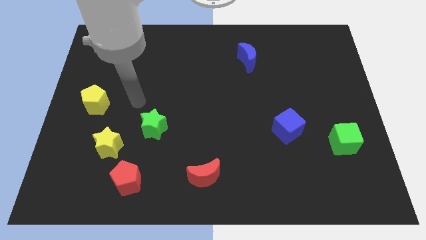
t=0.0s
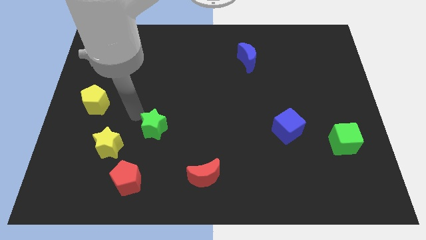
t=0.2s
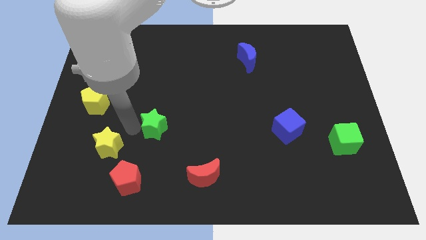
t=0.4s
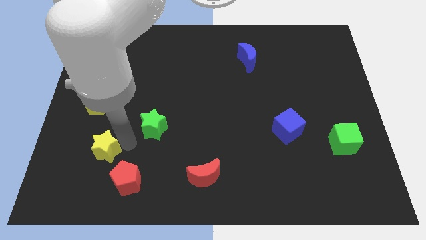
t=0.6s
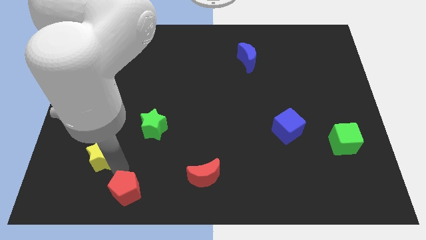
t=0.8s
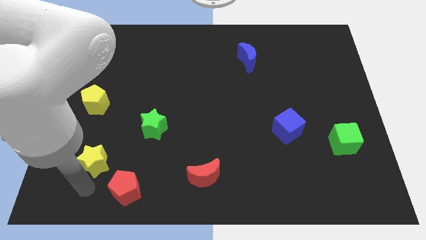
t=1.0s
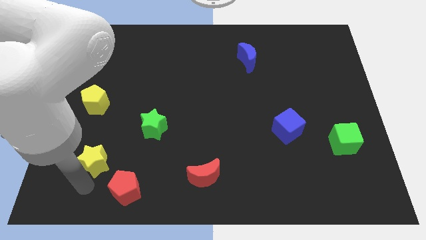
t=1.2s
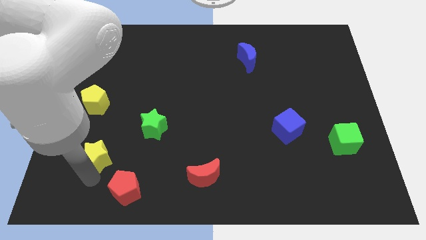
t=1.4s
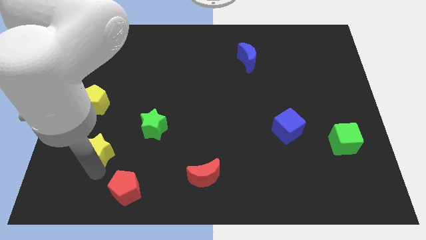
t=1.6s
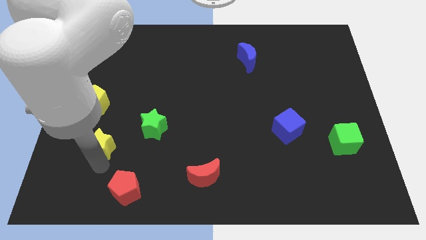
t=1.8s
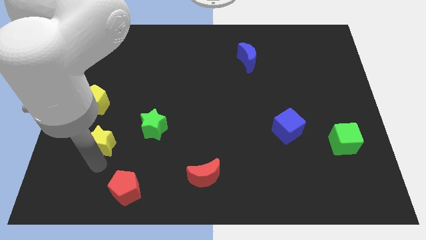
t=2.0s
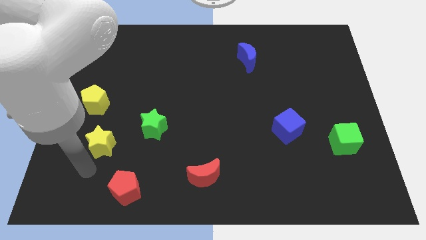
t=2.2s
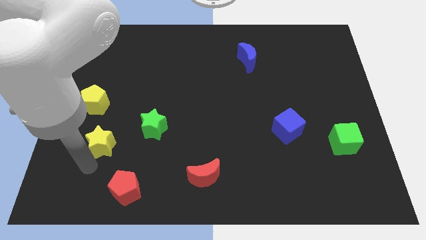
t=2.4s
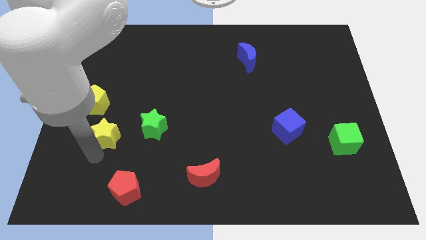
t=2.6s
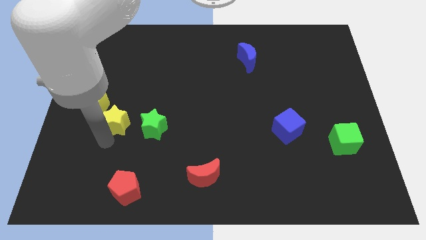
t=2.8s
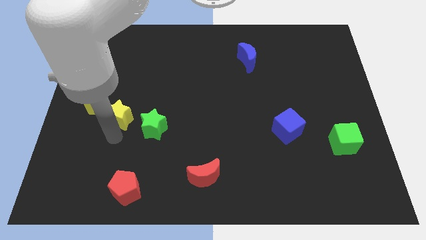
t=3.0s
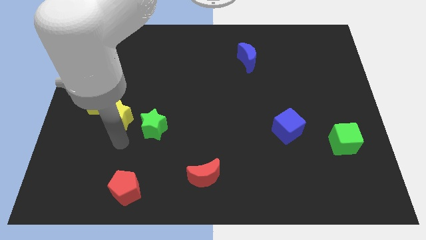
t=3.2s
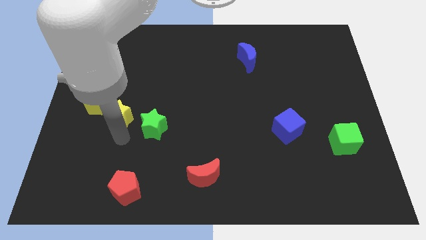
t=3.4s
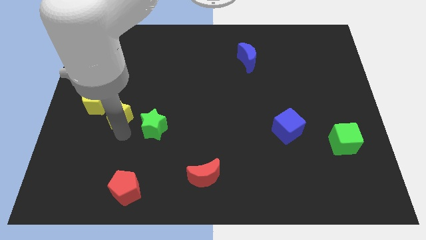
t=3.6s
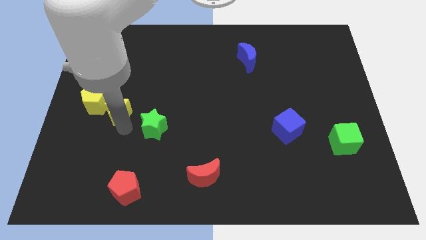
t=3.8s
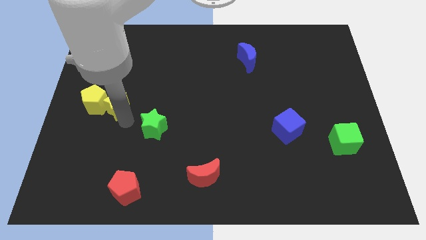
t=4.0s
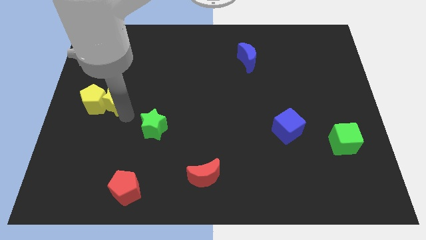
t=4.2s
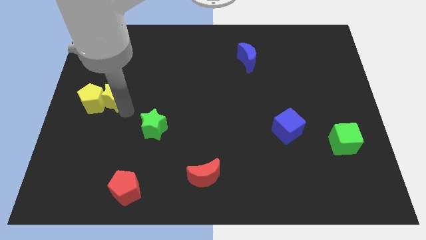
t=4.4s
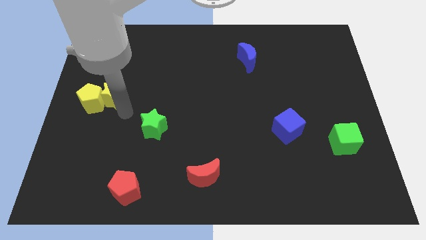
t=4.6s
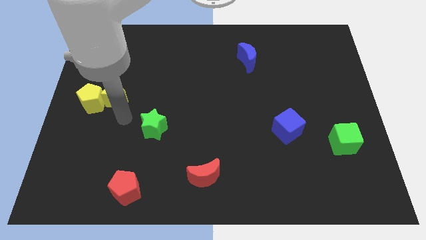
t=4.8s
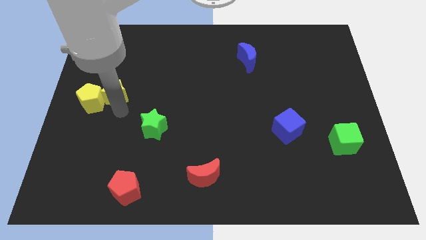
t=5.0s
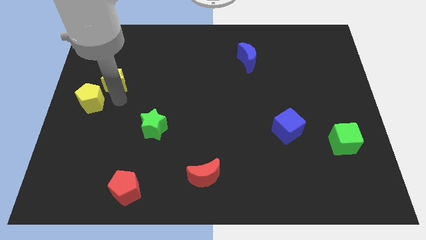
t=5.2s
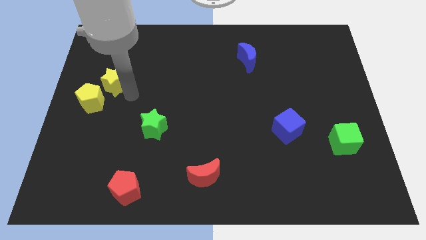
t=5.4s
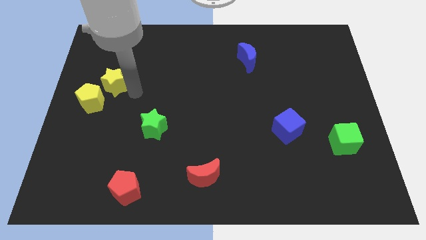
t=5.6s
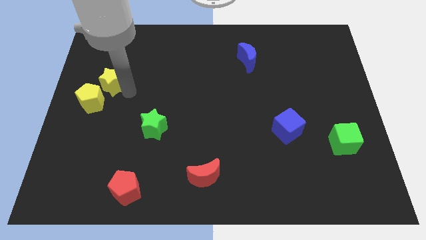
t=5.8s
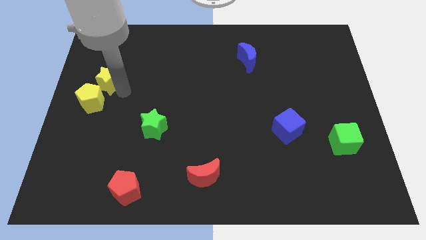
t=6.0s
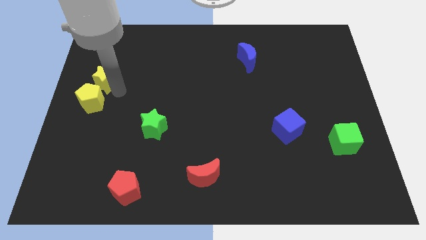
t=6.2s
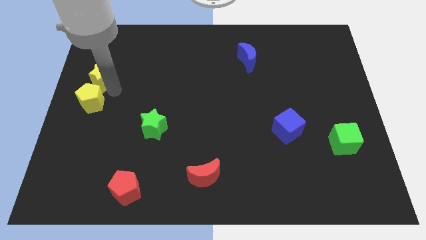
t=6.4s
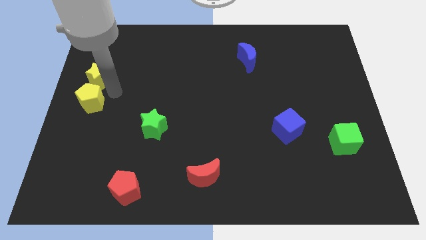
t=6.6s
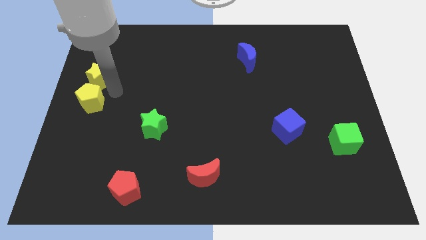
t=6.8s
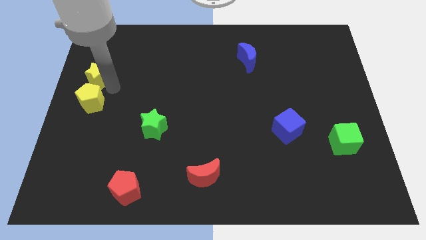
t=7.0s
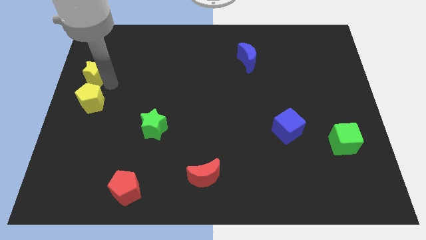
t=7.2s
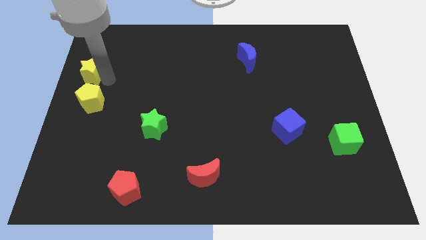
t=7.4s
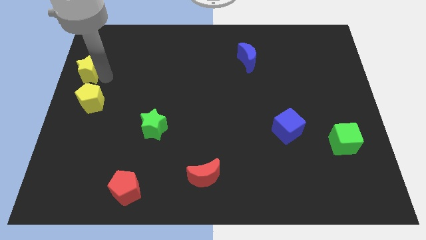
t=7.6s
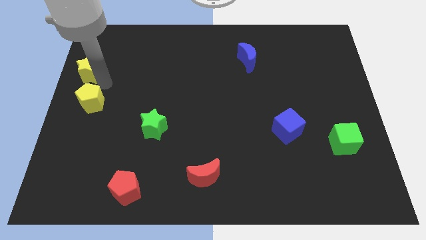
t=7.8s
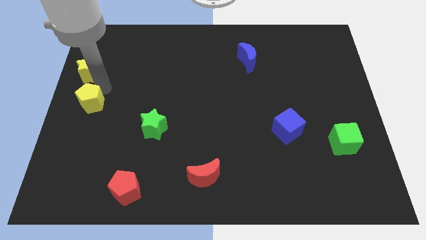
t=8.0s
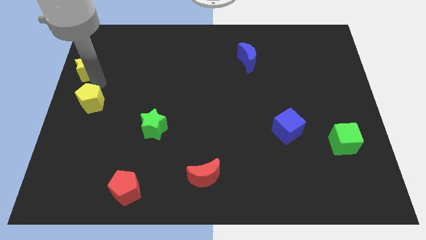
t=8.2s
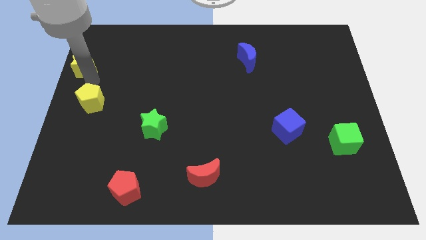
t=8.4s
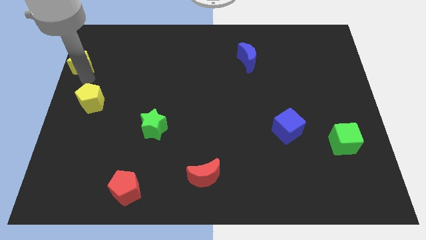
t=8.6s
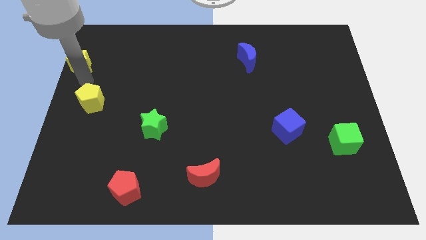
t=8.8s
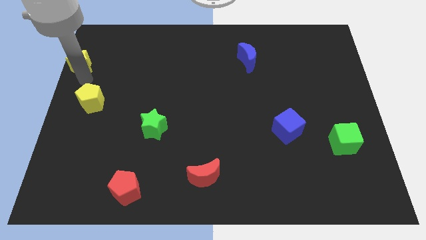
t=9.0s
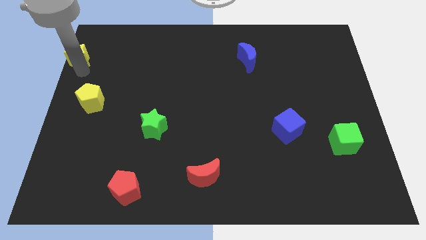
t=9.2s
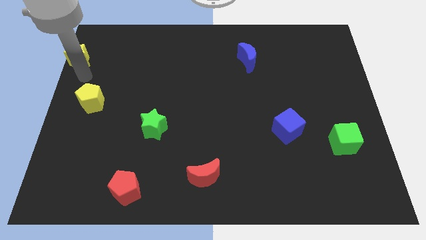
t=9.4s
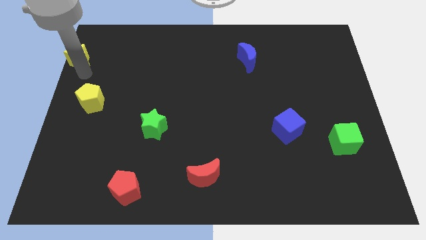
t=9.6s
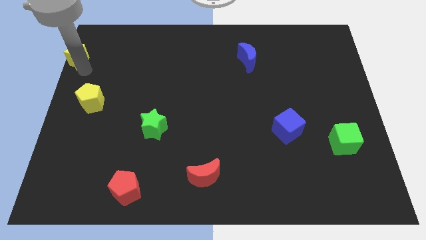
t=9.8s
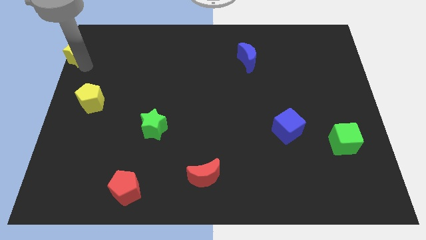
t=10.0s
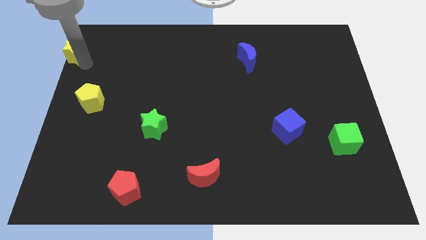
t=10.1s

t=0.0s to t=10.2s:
move the yellow star to the top left corner

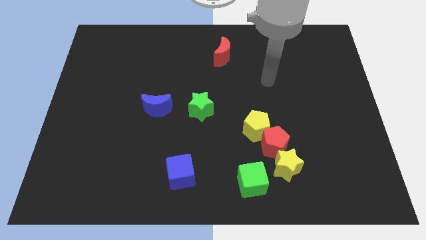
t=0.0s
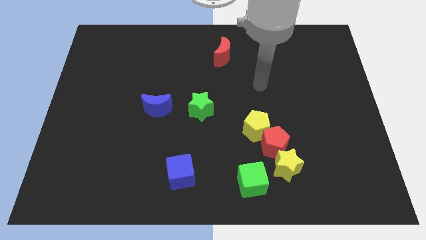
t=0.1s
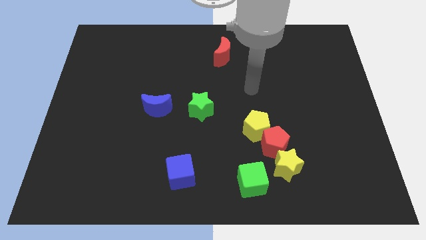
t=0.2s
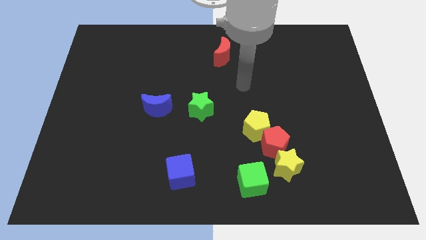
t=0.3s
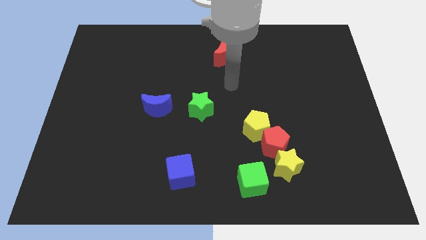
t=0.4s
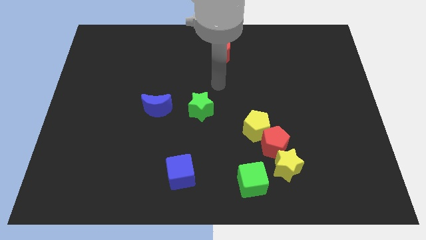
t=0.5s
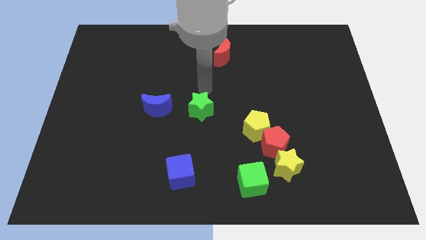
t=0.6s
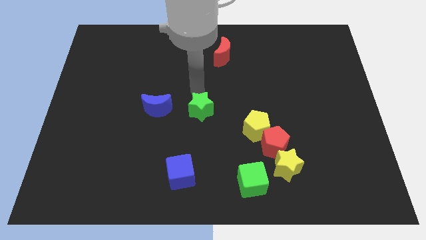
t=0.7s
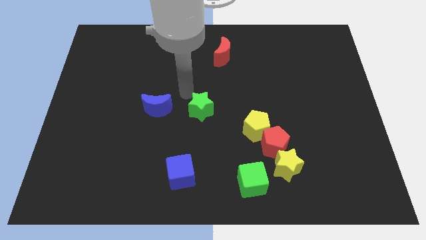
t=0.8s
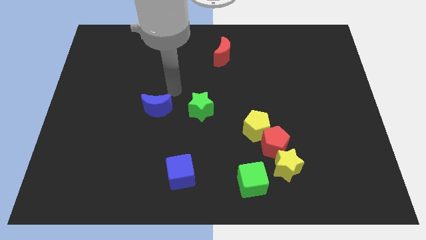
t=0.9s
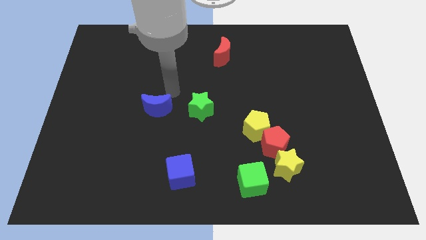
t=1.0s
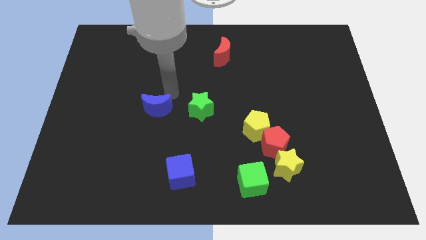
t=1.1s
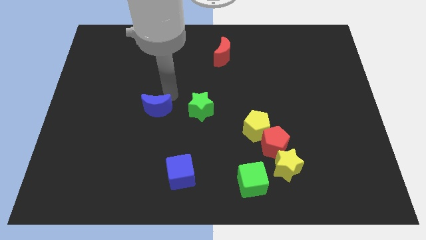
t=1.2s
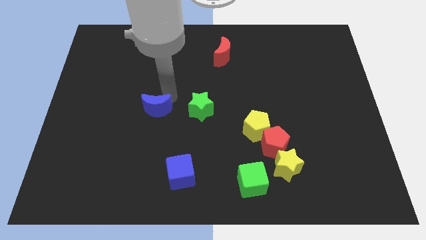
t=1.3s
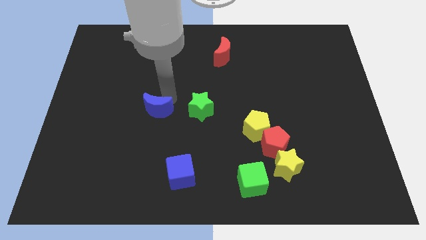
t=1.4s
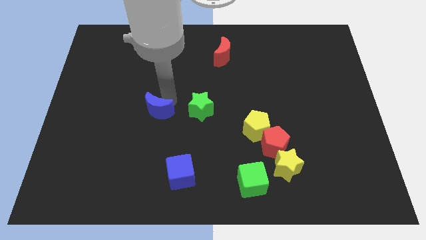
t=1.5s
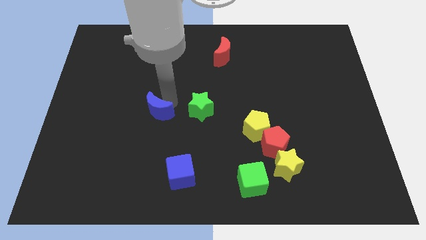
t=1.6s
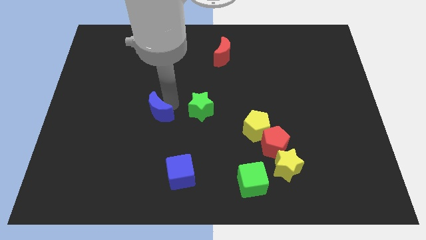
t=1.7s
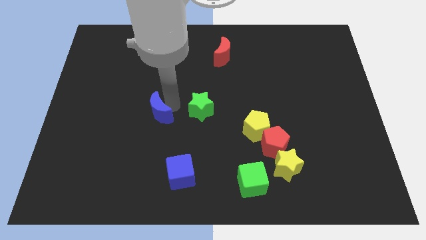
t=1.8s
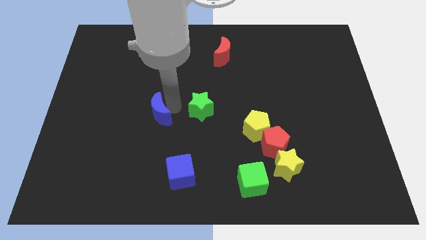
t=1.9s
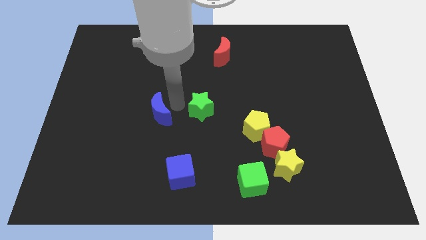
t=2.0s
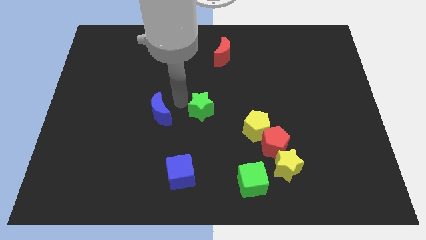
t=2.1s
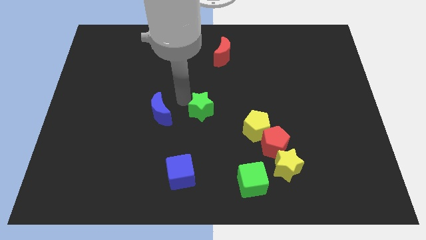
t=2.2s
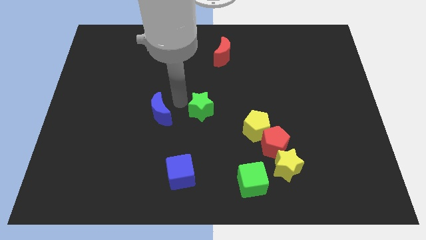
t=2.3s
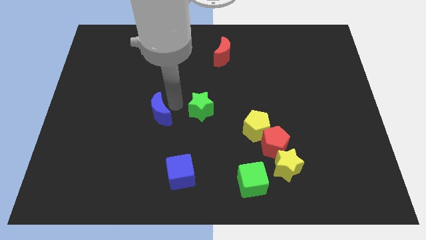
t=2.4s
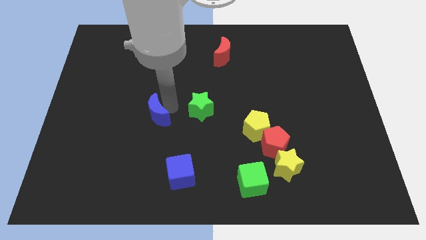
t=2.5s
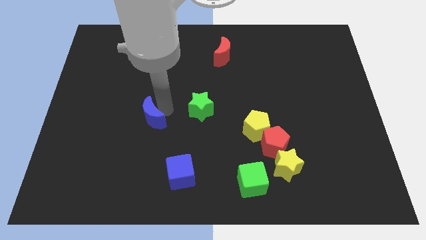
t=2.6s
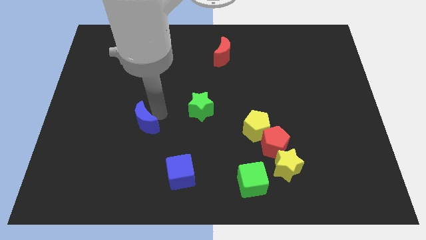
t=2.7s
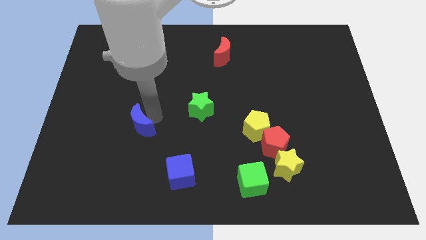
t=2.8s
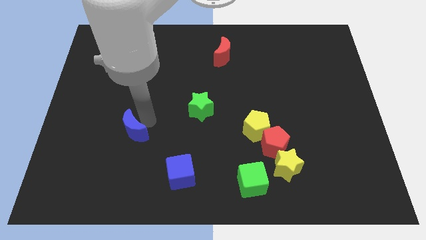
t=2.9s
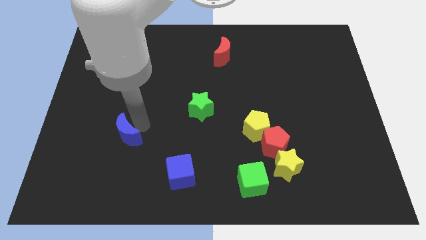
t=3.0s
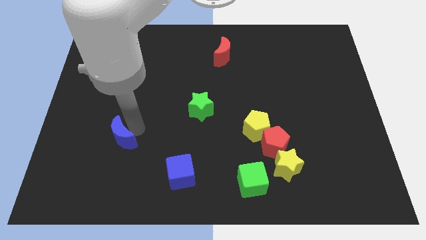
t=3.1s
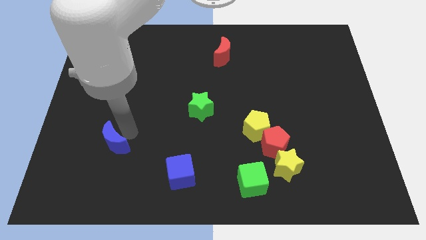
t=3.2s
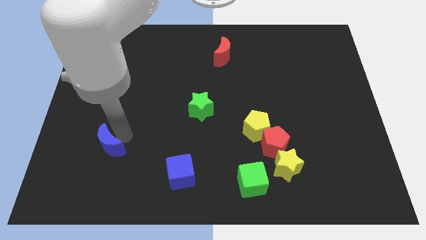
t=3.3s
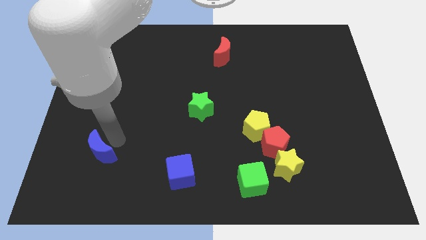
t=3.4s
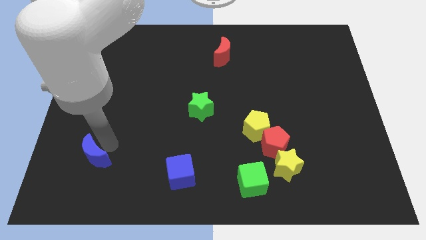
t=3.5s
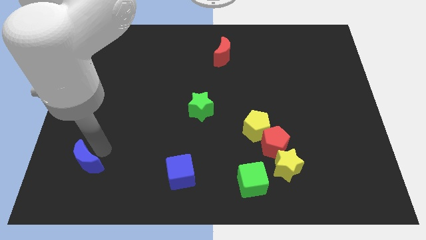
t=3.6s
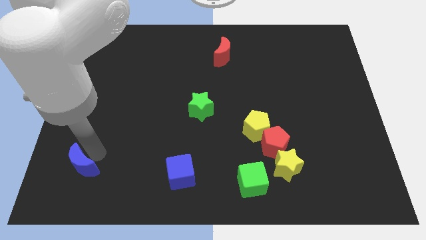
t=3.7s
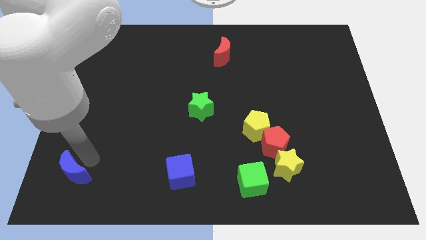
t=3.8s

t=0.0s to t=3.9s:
move the blue moon to the lower left corner
